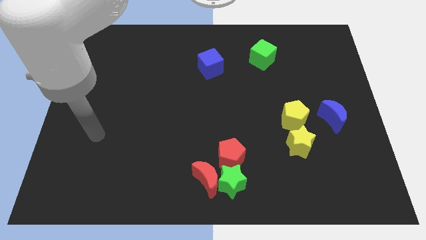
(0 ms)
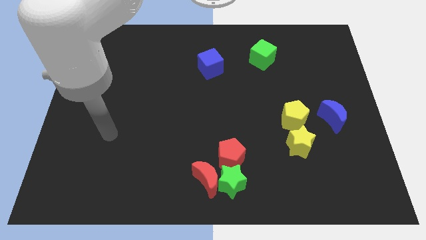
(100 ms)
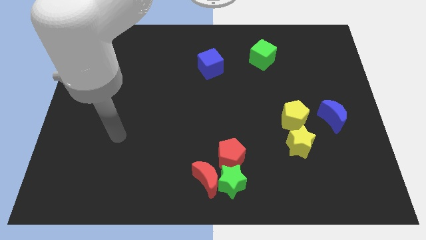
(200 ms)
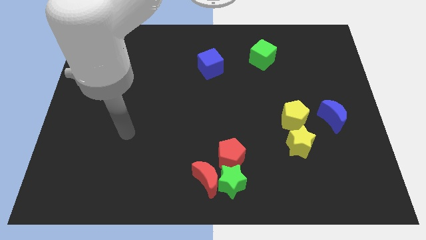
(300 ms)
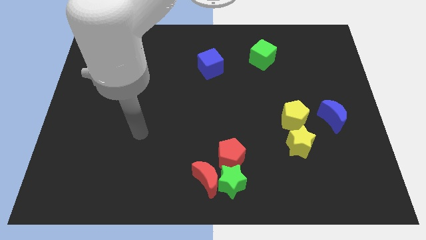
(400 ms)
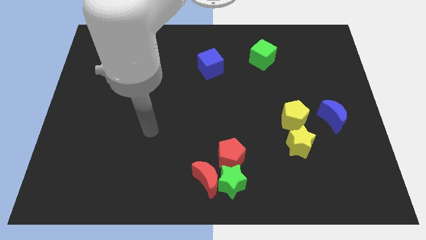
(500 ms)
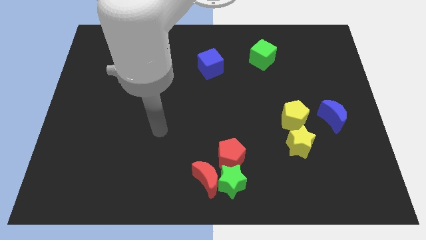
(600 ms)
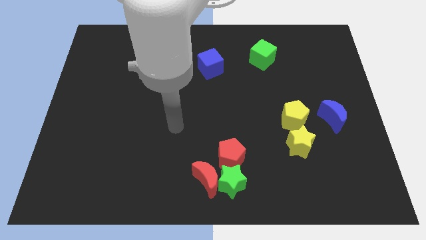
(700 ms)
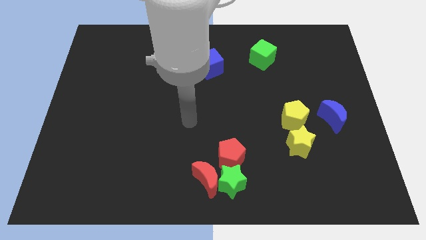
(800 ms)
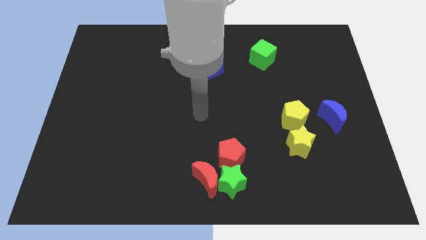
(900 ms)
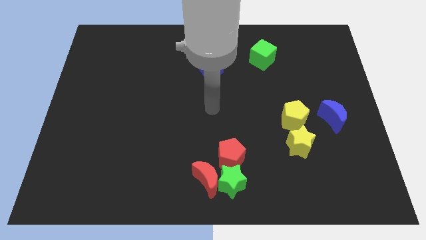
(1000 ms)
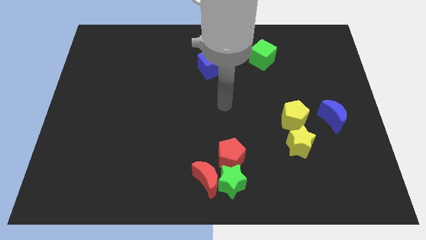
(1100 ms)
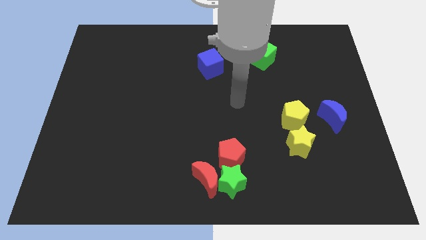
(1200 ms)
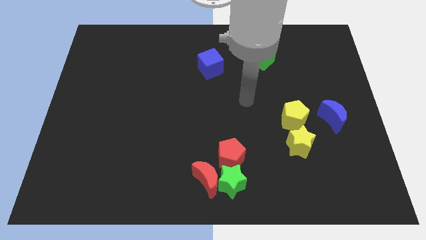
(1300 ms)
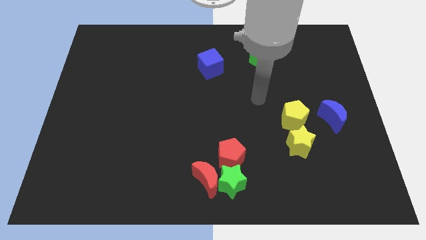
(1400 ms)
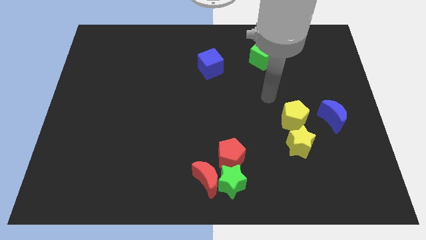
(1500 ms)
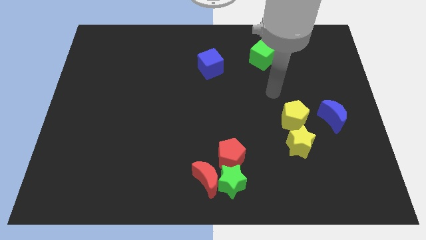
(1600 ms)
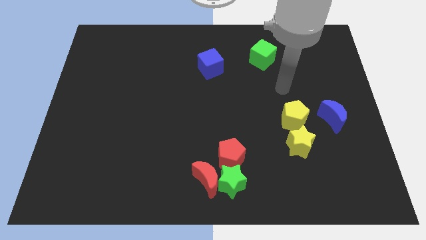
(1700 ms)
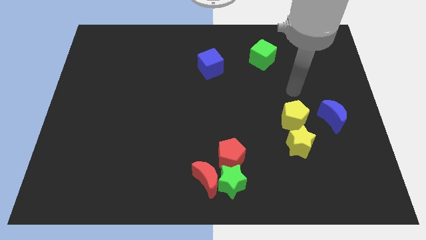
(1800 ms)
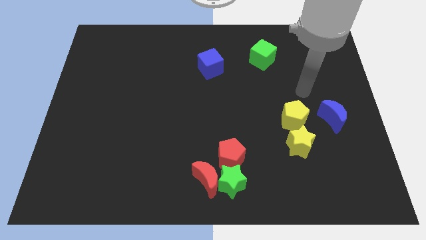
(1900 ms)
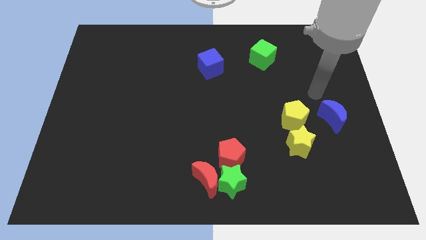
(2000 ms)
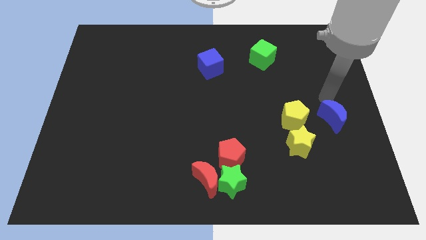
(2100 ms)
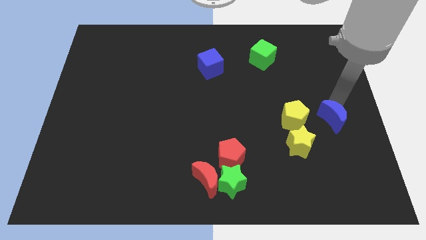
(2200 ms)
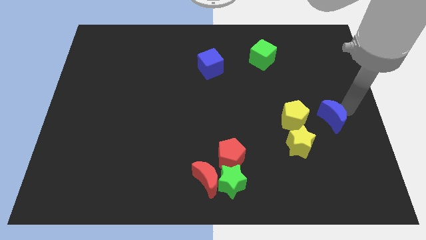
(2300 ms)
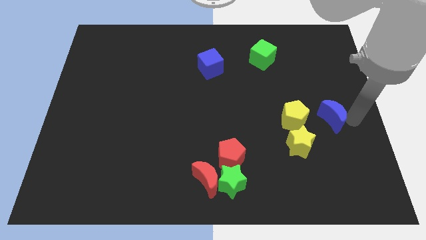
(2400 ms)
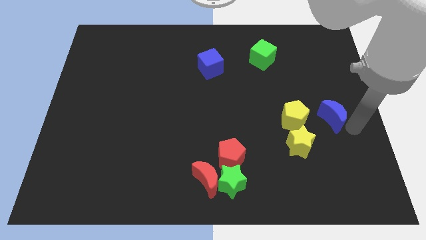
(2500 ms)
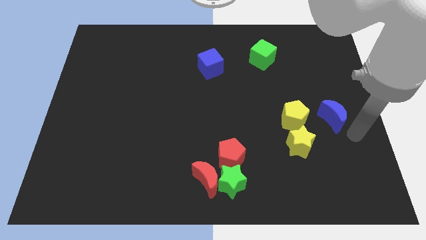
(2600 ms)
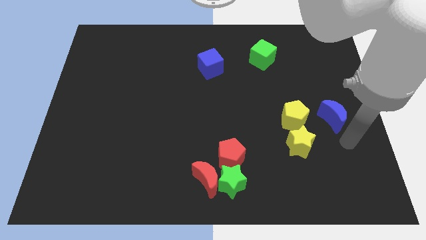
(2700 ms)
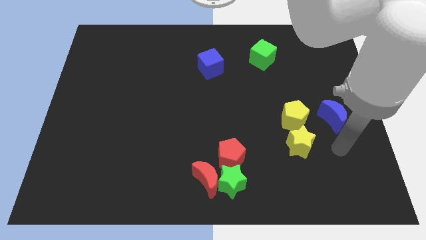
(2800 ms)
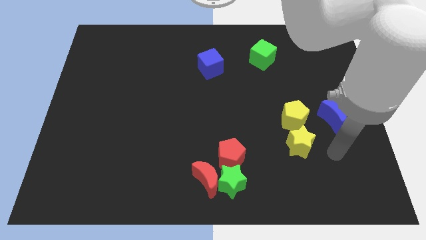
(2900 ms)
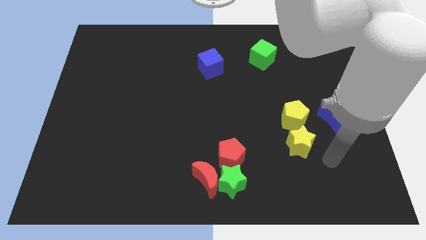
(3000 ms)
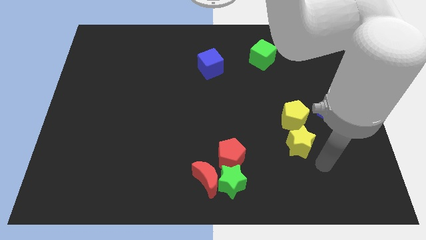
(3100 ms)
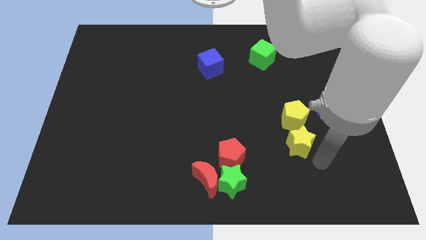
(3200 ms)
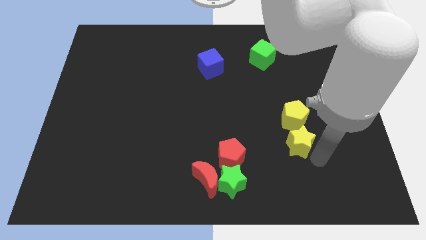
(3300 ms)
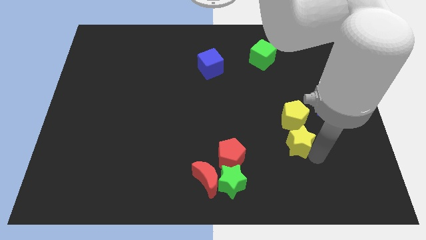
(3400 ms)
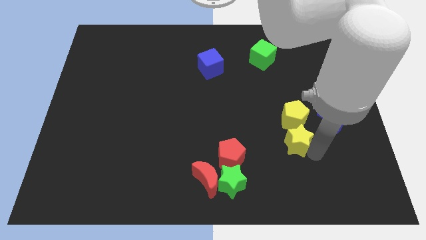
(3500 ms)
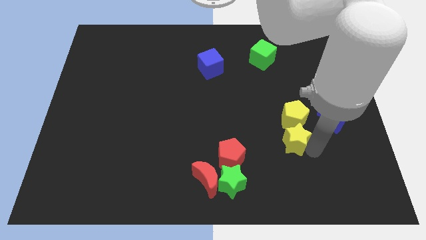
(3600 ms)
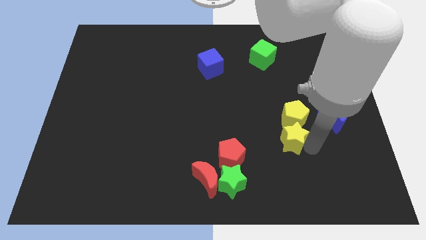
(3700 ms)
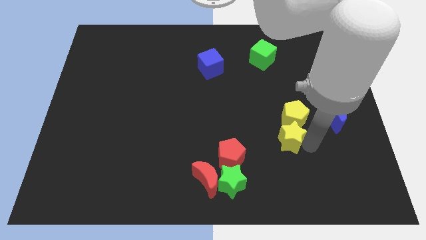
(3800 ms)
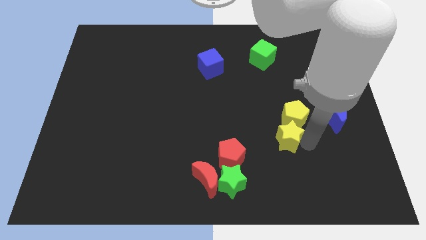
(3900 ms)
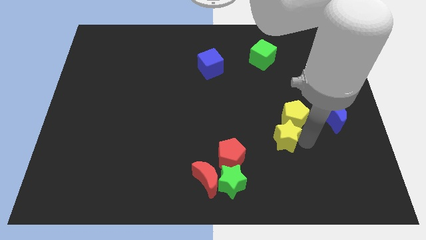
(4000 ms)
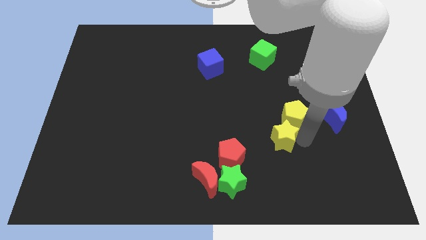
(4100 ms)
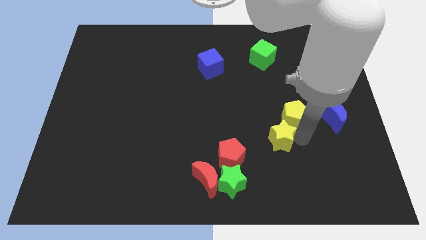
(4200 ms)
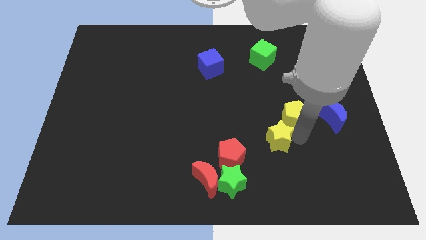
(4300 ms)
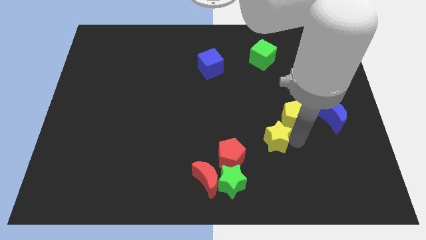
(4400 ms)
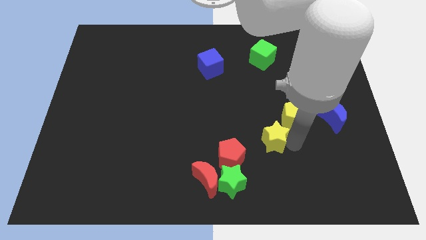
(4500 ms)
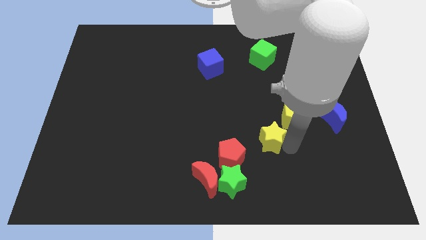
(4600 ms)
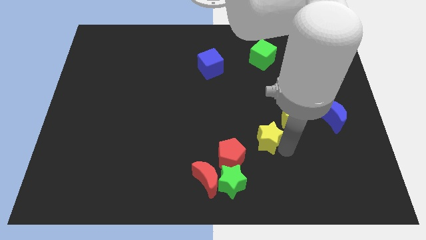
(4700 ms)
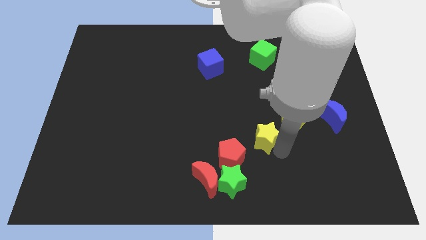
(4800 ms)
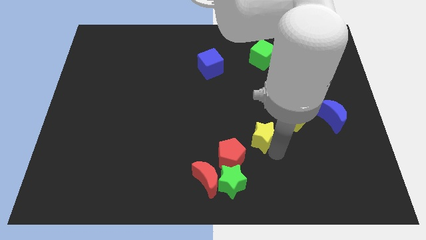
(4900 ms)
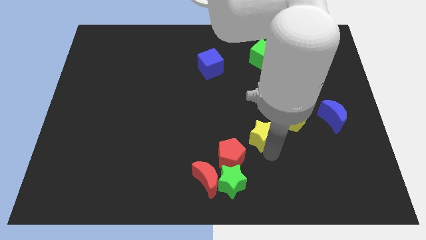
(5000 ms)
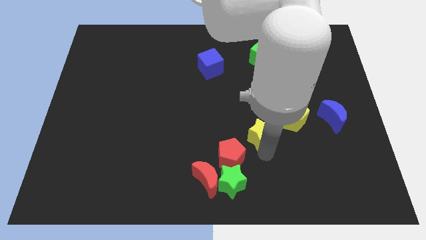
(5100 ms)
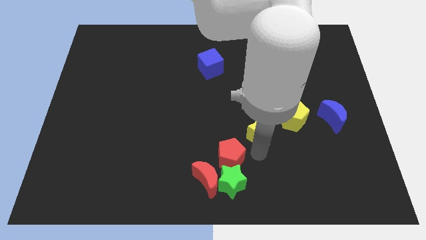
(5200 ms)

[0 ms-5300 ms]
slightly slide the yellow star up and then left

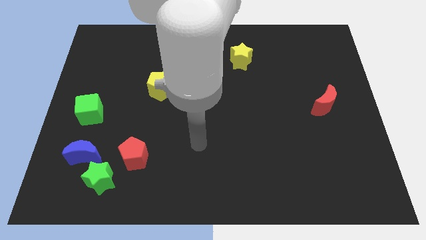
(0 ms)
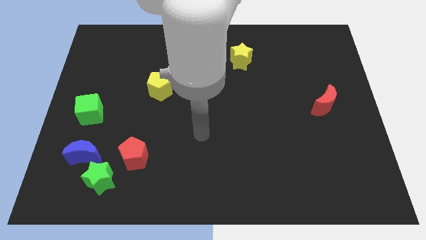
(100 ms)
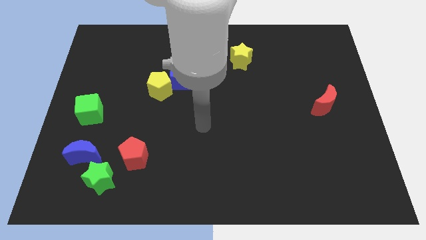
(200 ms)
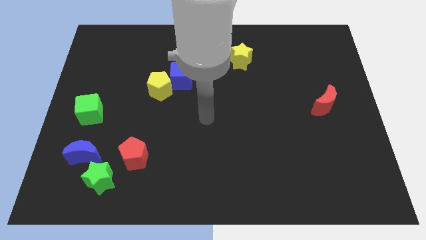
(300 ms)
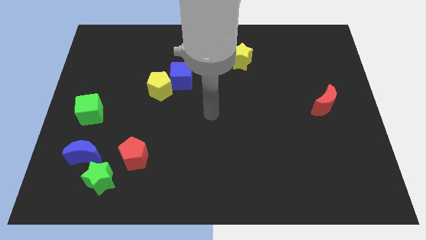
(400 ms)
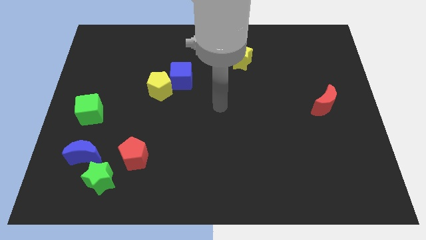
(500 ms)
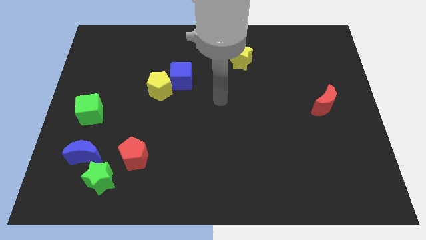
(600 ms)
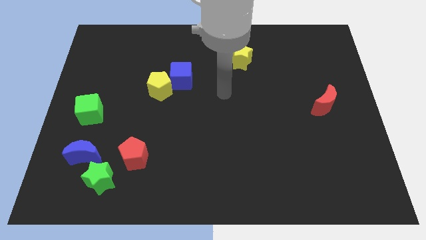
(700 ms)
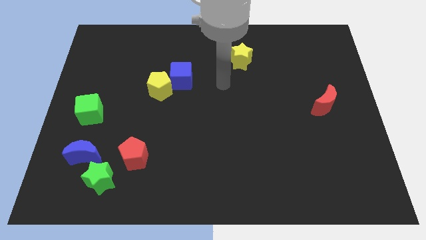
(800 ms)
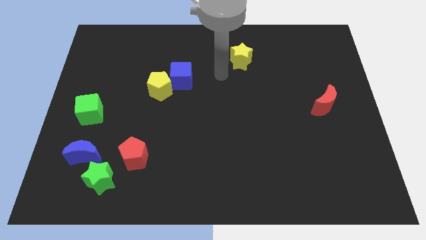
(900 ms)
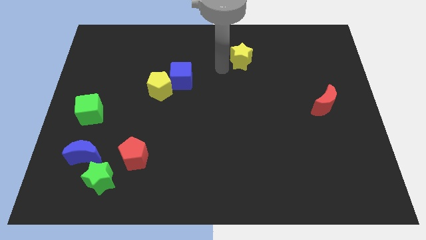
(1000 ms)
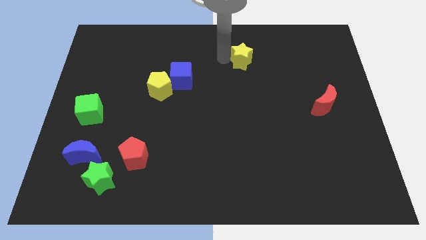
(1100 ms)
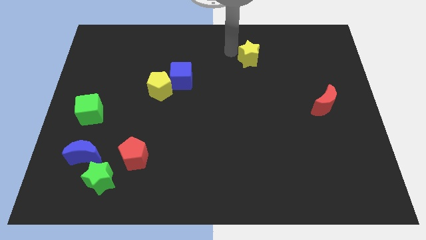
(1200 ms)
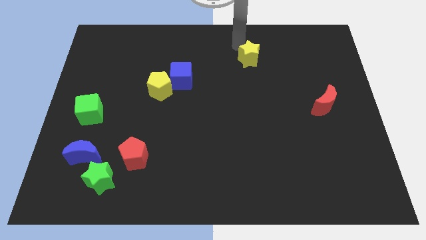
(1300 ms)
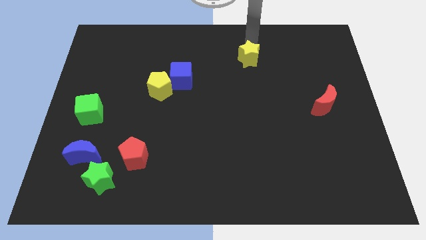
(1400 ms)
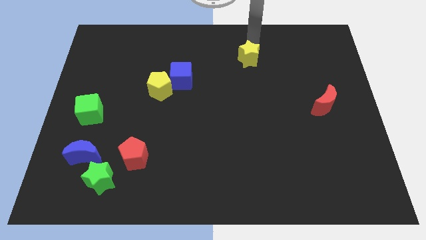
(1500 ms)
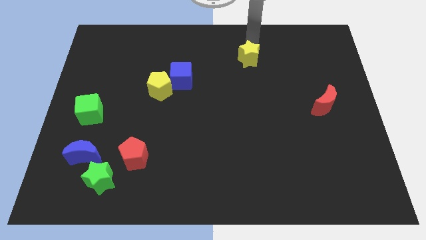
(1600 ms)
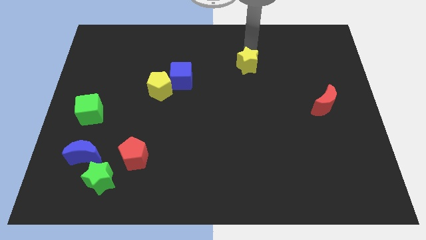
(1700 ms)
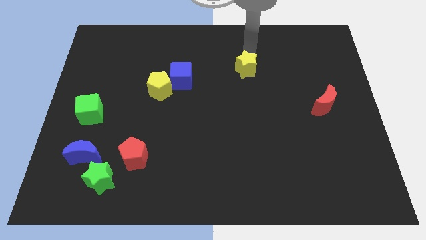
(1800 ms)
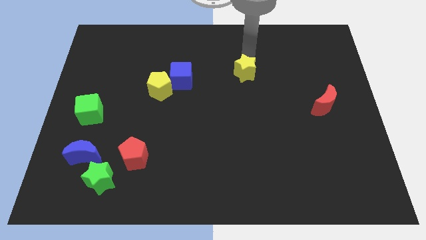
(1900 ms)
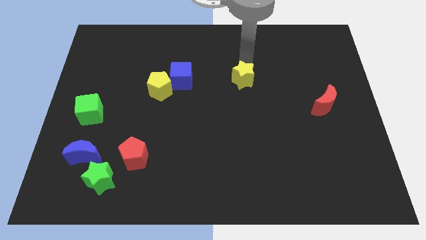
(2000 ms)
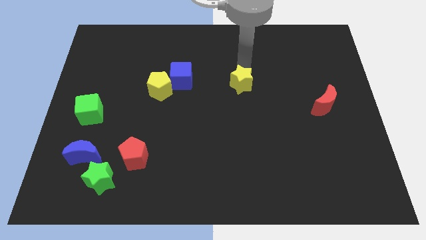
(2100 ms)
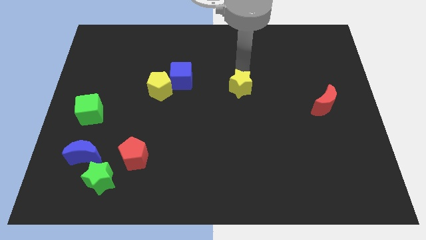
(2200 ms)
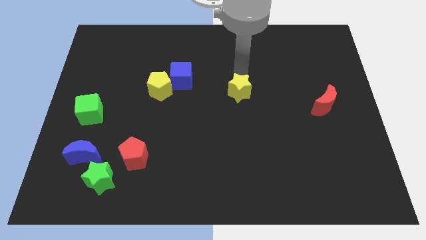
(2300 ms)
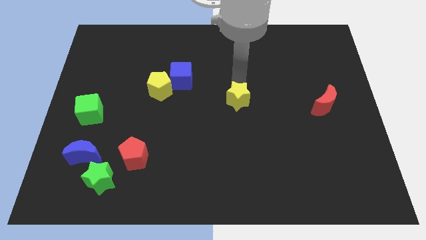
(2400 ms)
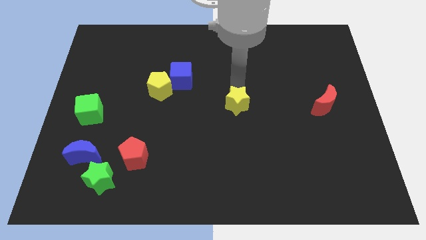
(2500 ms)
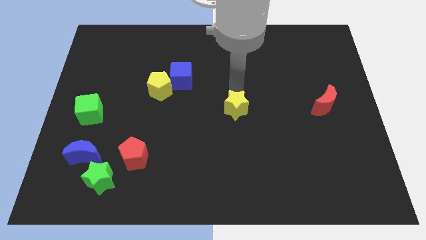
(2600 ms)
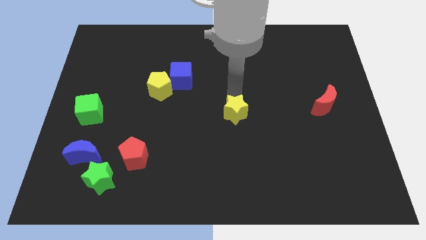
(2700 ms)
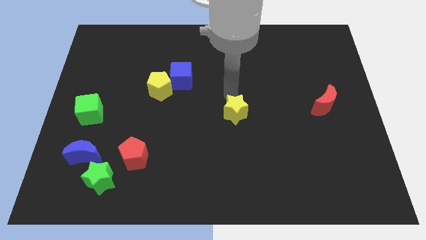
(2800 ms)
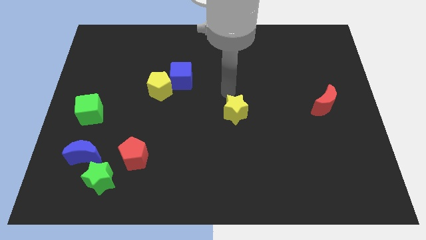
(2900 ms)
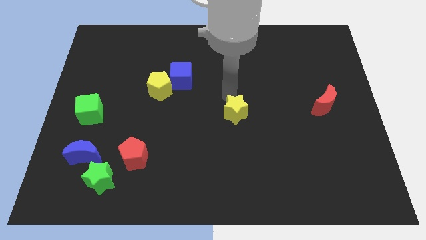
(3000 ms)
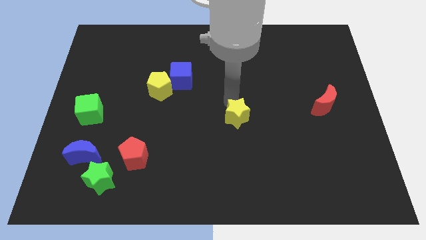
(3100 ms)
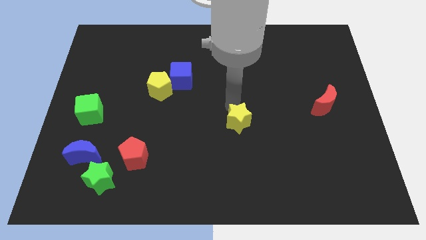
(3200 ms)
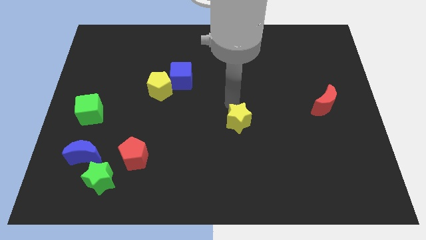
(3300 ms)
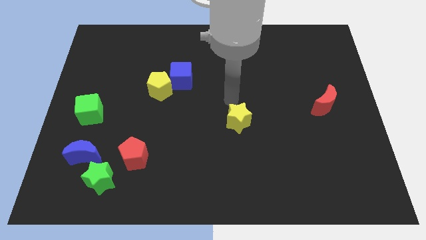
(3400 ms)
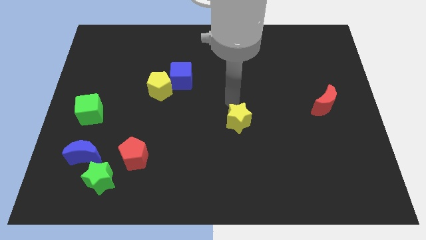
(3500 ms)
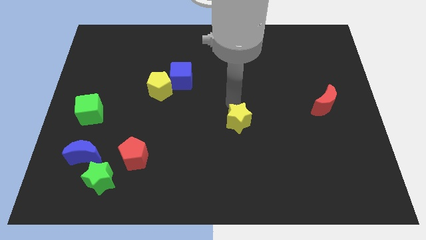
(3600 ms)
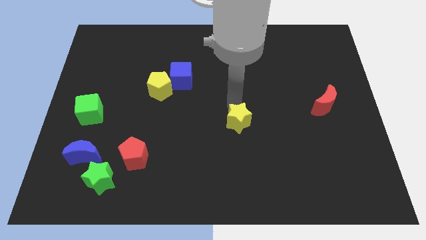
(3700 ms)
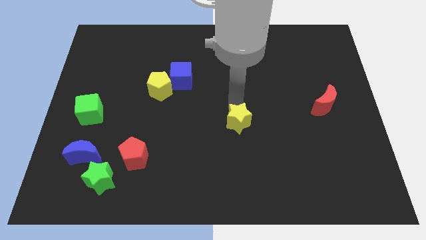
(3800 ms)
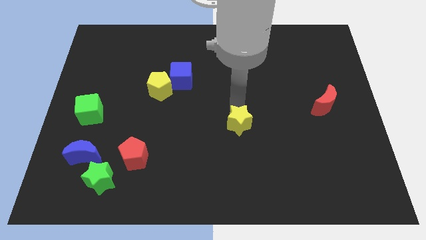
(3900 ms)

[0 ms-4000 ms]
move the yellow star downwards
